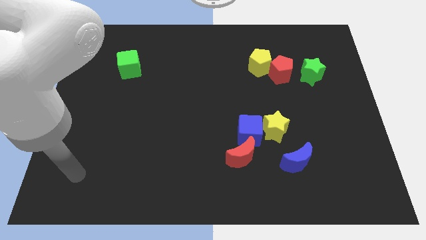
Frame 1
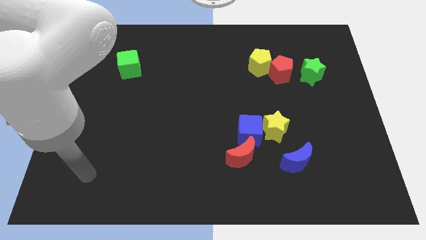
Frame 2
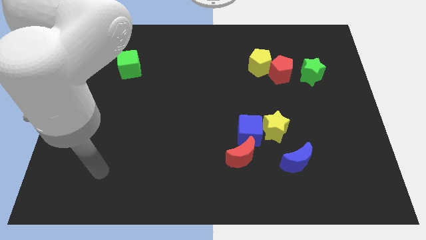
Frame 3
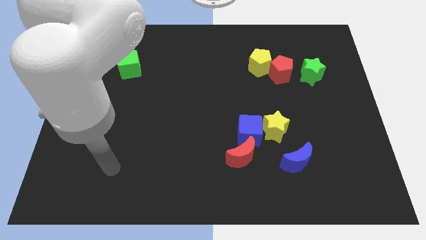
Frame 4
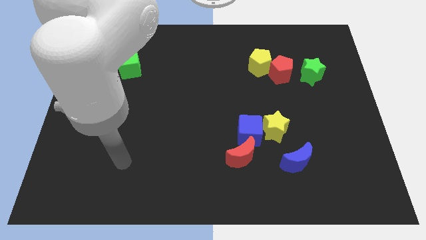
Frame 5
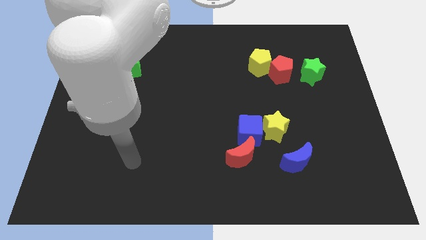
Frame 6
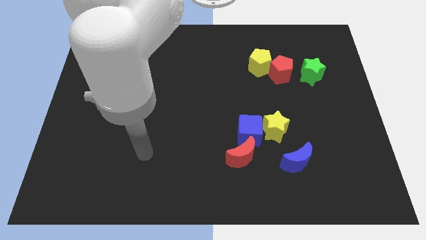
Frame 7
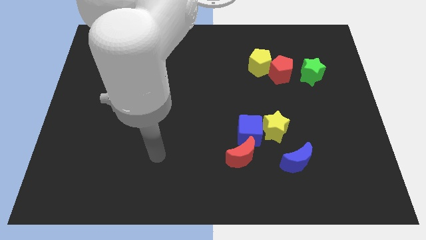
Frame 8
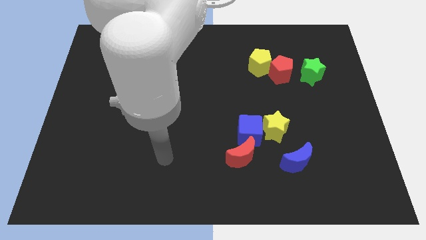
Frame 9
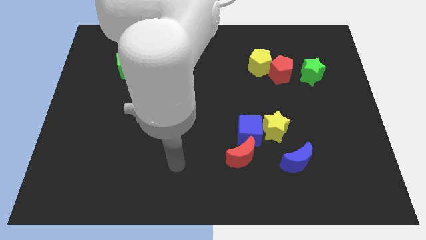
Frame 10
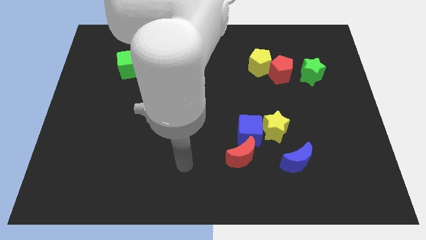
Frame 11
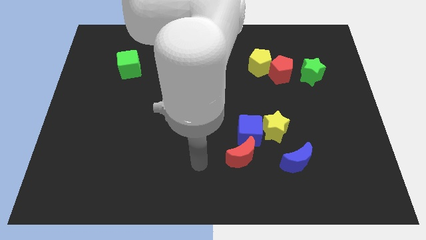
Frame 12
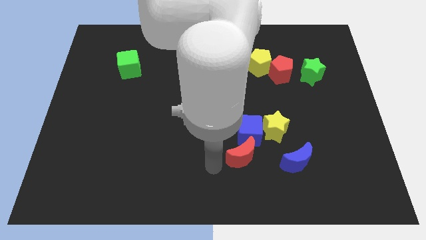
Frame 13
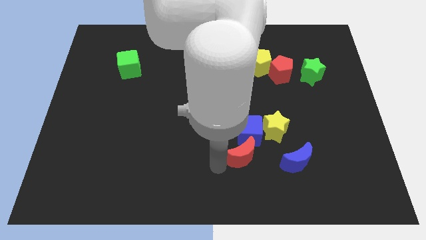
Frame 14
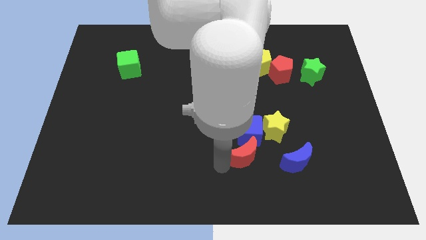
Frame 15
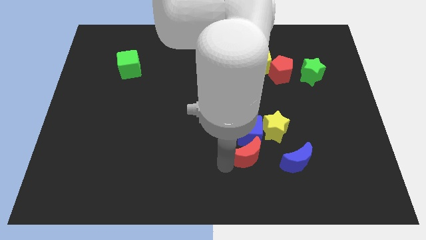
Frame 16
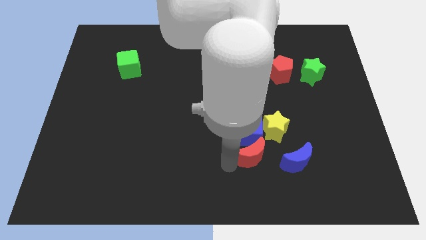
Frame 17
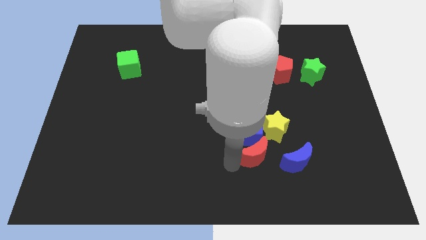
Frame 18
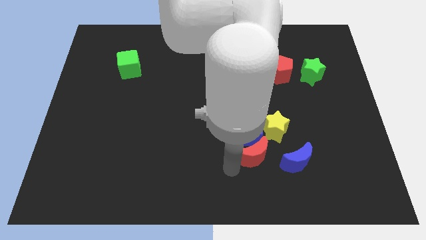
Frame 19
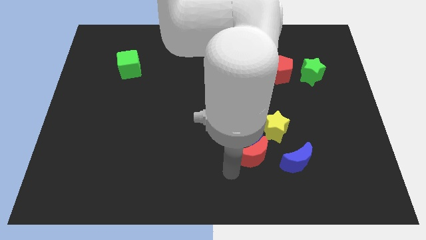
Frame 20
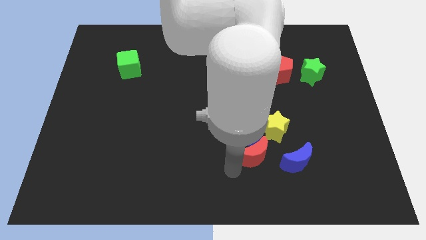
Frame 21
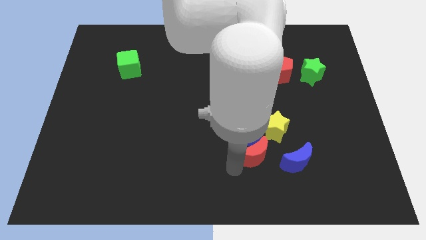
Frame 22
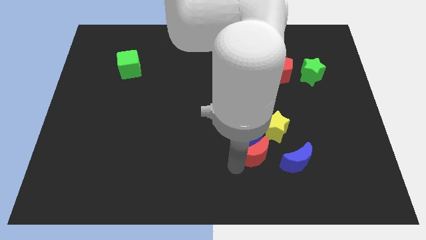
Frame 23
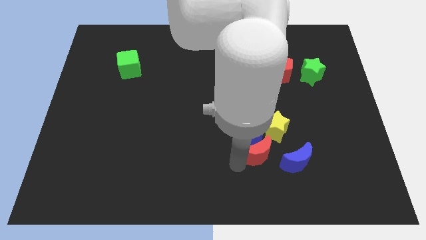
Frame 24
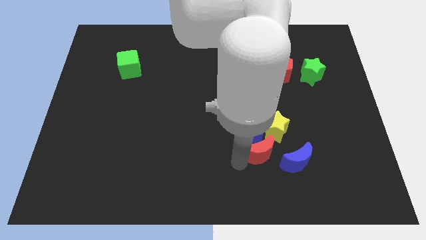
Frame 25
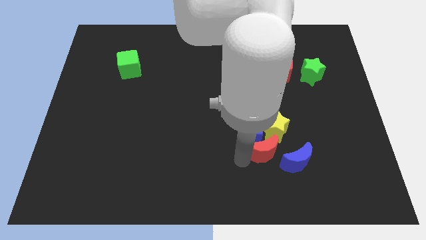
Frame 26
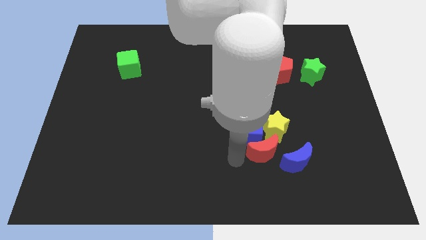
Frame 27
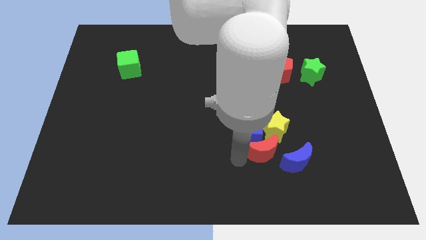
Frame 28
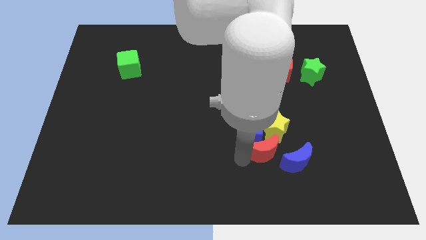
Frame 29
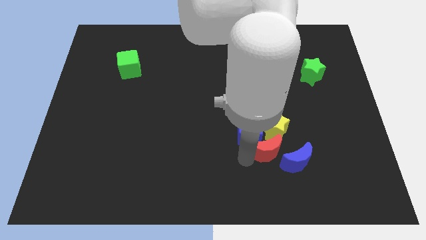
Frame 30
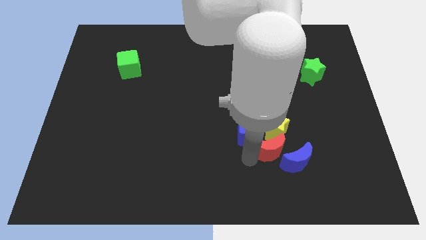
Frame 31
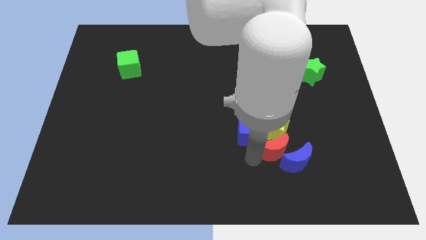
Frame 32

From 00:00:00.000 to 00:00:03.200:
move the red moon a little bit right

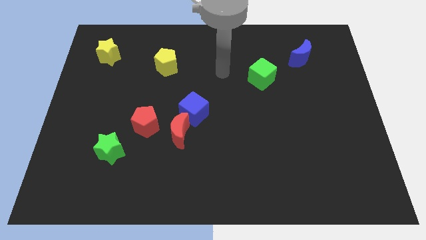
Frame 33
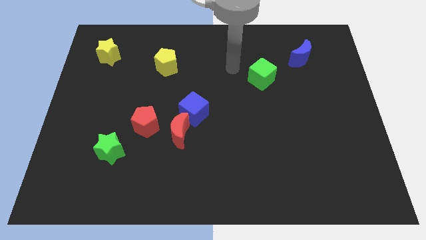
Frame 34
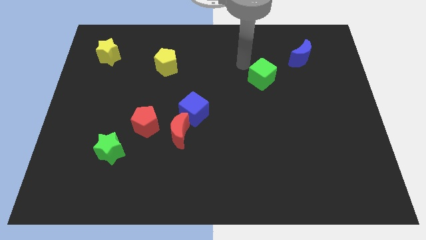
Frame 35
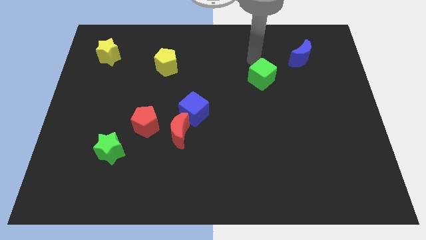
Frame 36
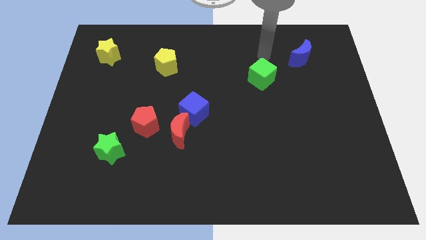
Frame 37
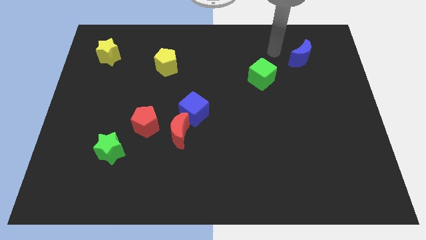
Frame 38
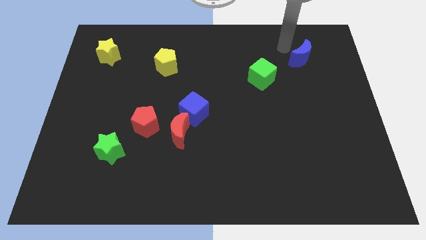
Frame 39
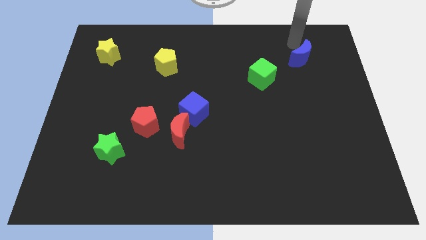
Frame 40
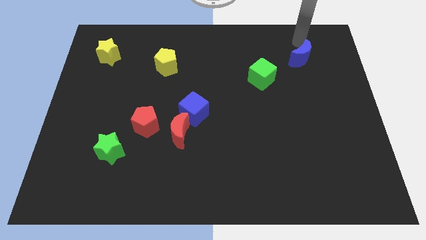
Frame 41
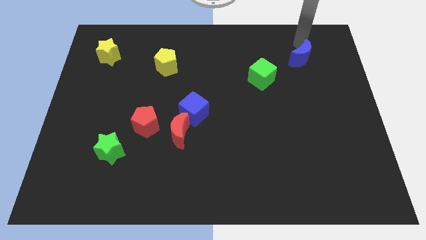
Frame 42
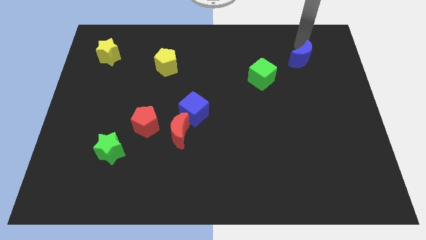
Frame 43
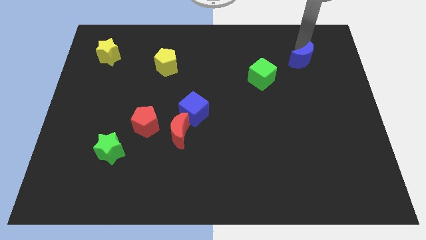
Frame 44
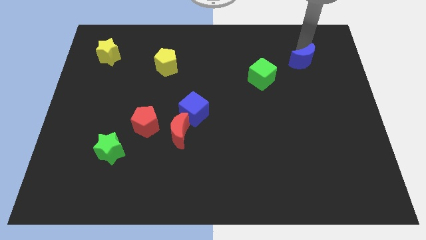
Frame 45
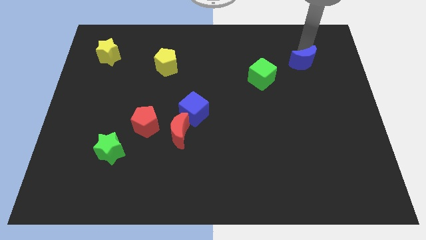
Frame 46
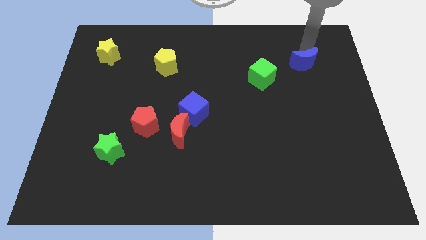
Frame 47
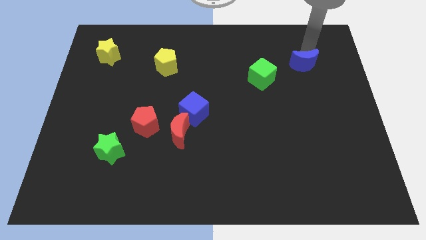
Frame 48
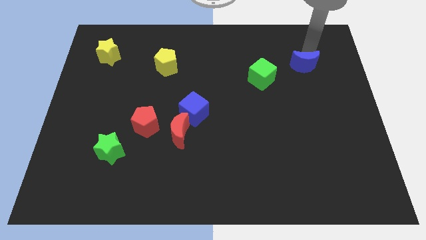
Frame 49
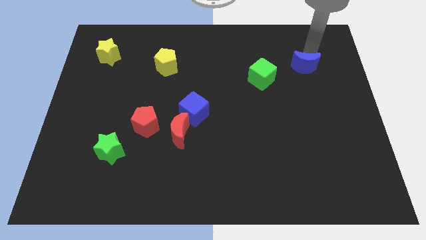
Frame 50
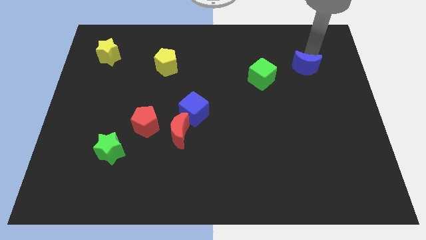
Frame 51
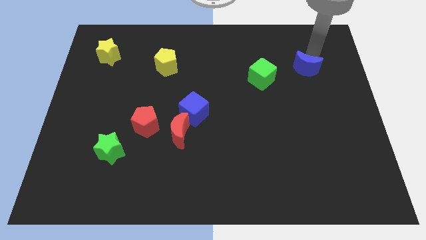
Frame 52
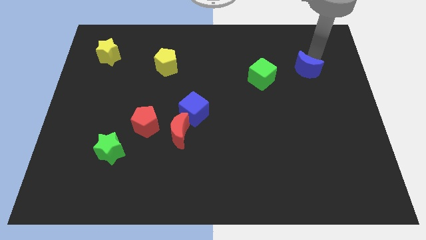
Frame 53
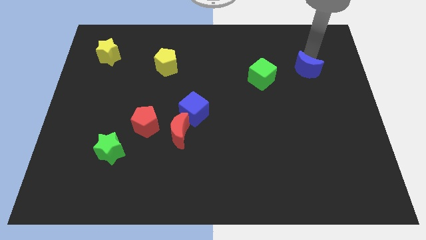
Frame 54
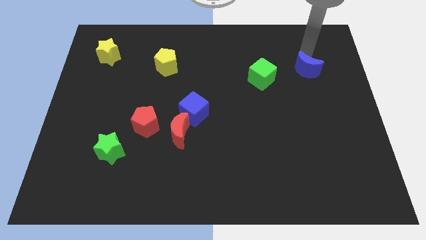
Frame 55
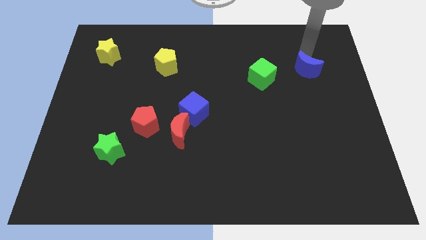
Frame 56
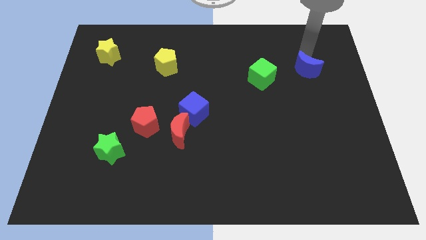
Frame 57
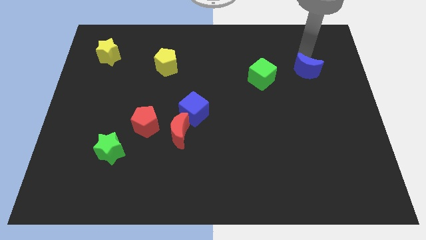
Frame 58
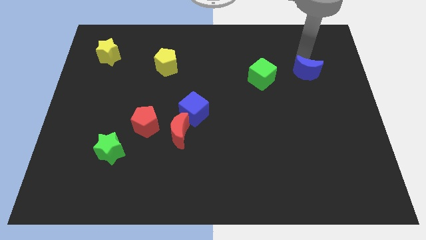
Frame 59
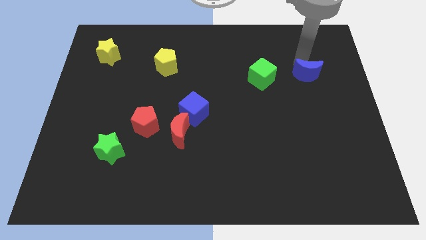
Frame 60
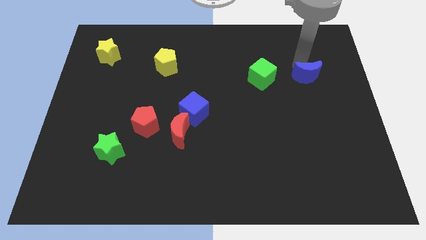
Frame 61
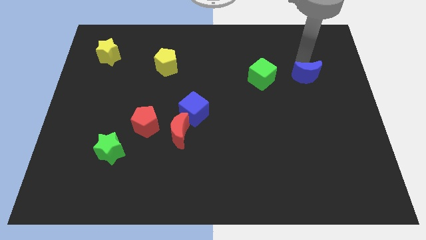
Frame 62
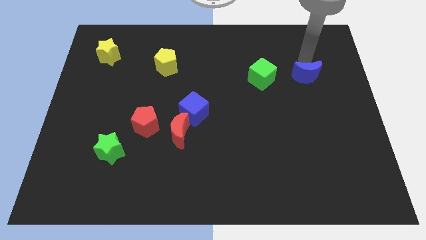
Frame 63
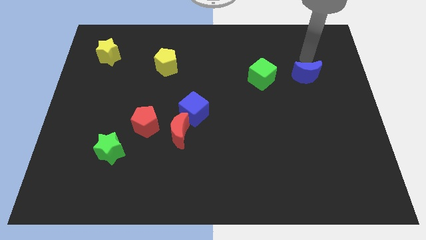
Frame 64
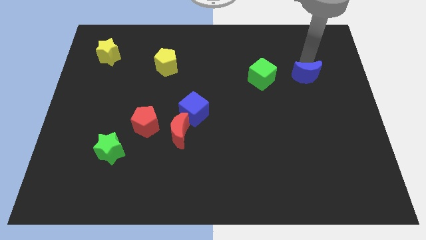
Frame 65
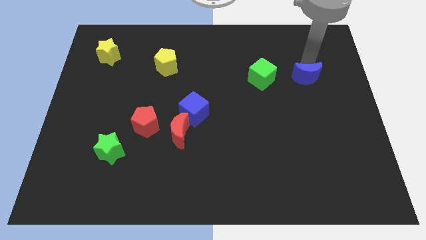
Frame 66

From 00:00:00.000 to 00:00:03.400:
push the blue moon a little down

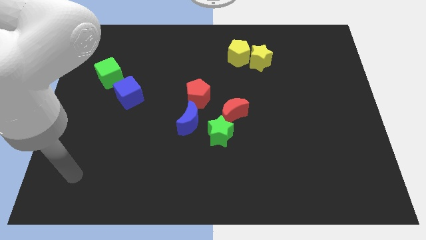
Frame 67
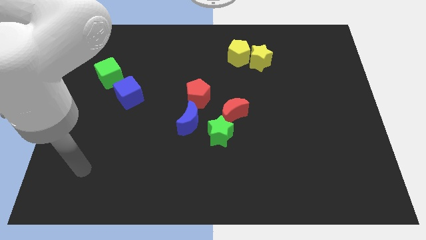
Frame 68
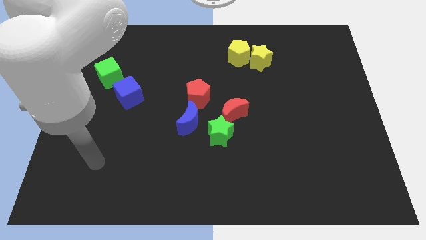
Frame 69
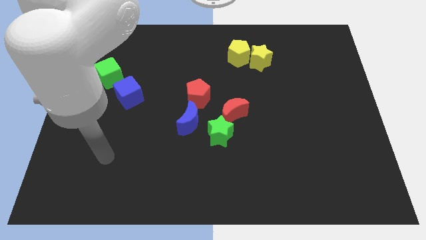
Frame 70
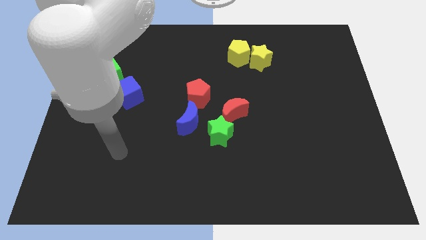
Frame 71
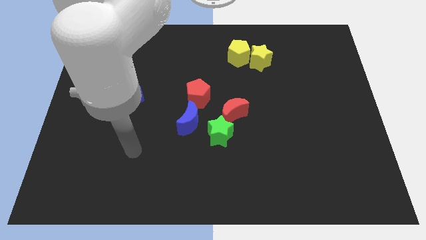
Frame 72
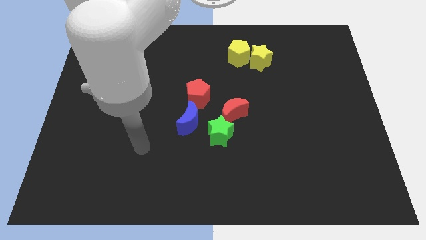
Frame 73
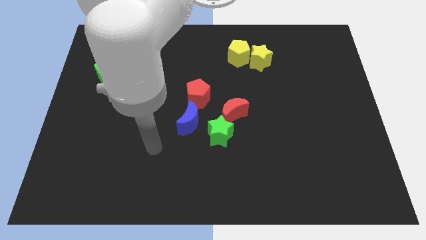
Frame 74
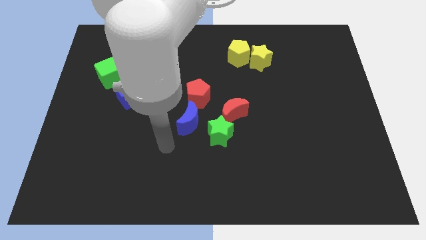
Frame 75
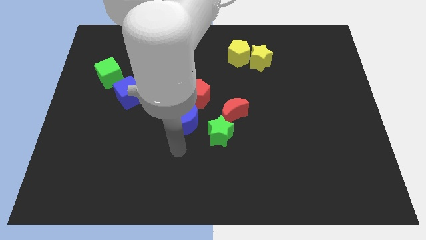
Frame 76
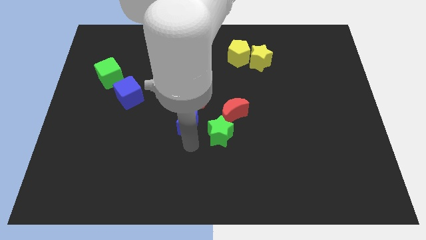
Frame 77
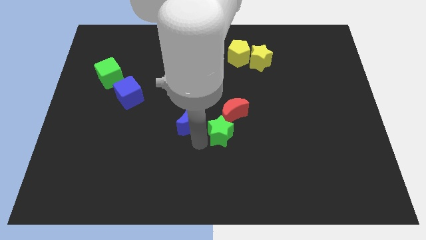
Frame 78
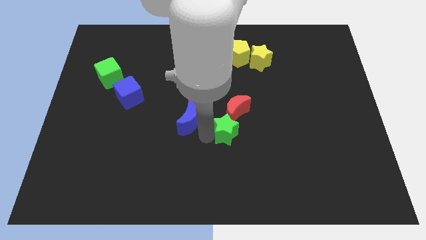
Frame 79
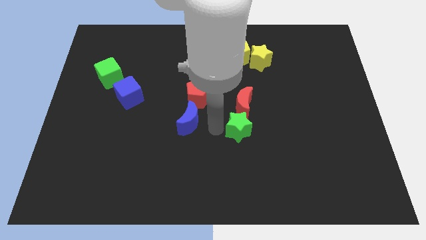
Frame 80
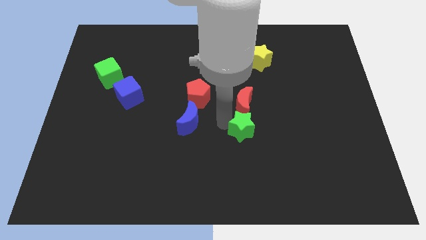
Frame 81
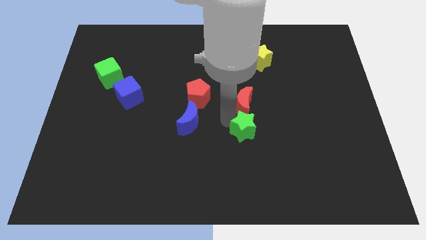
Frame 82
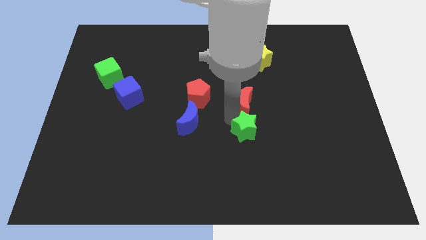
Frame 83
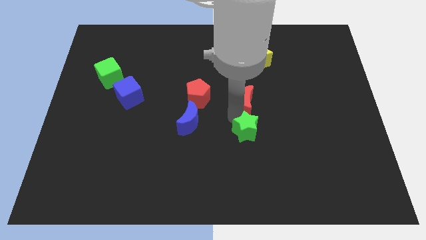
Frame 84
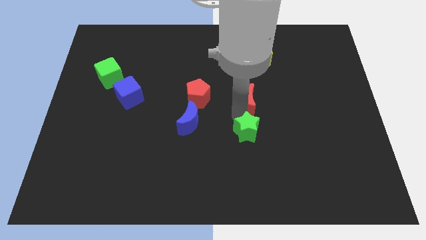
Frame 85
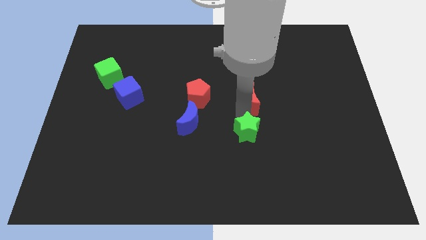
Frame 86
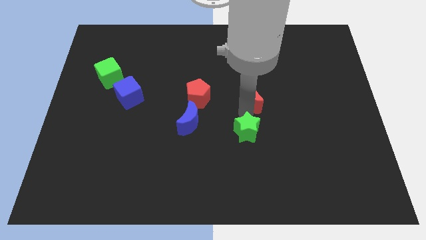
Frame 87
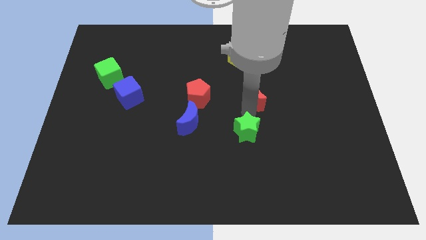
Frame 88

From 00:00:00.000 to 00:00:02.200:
slide the red moon upwards and to the right a bit
